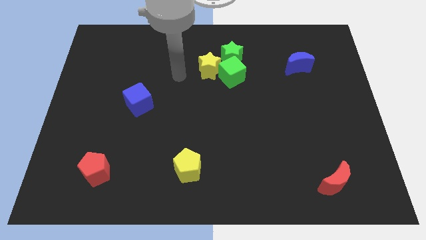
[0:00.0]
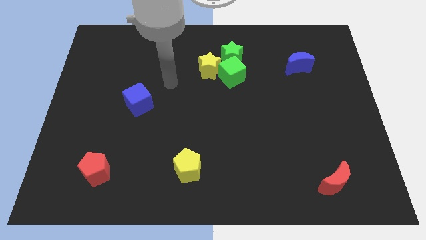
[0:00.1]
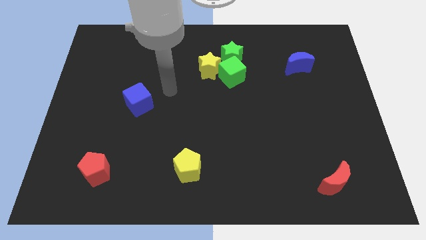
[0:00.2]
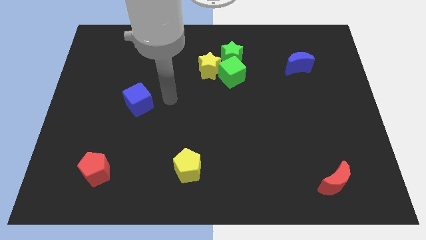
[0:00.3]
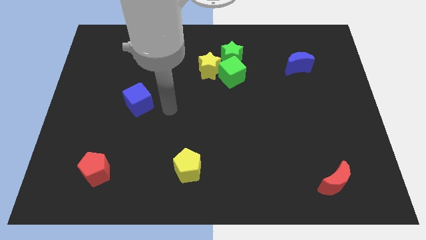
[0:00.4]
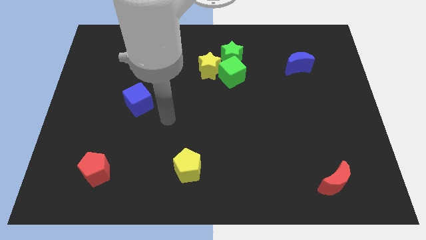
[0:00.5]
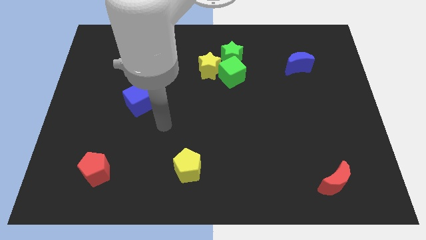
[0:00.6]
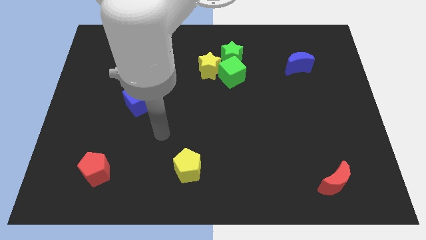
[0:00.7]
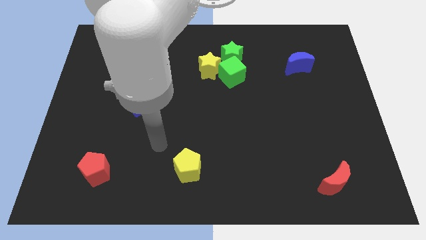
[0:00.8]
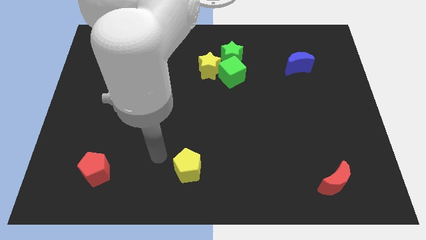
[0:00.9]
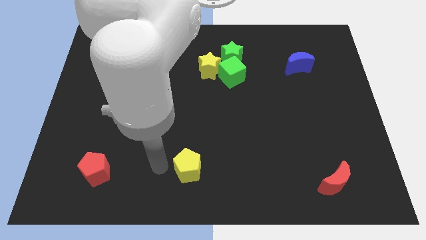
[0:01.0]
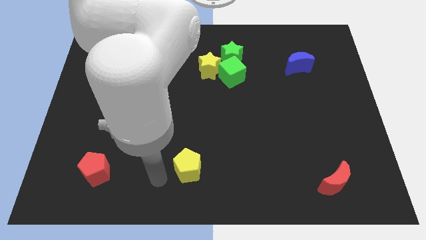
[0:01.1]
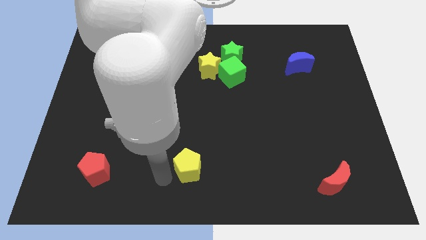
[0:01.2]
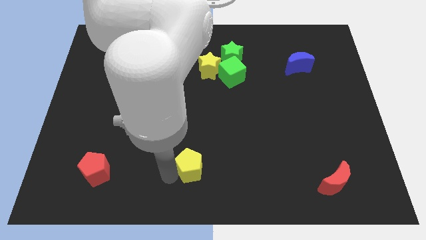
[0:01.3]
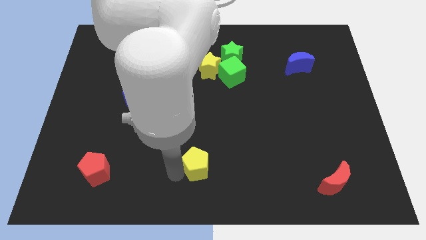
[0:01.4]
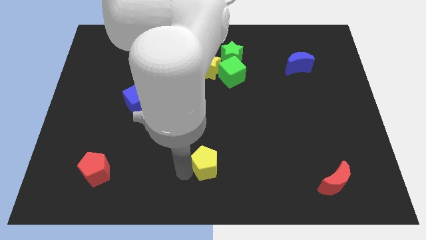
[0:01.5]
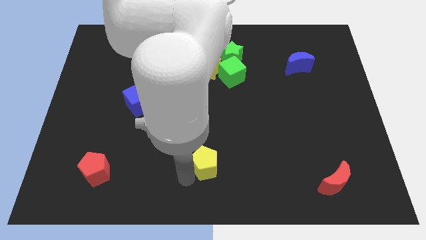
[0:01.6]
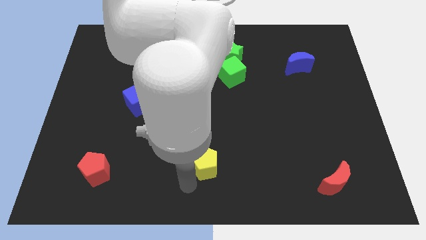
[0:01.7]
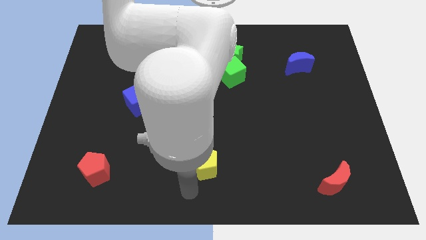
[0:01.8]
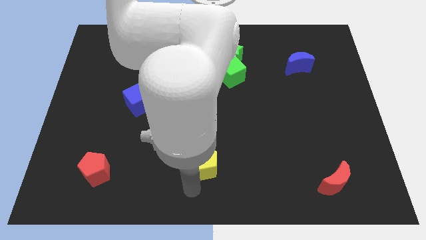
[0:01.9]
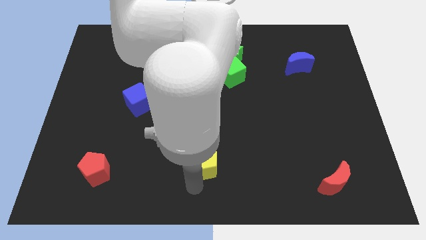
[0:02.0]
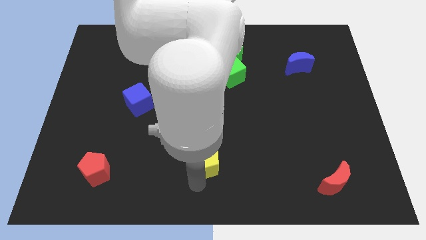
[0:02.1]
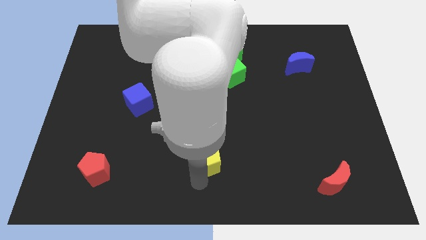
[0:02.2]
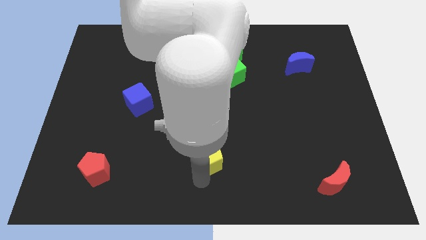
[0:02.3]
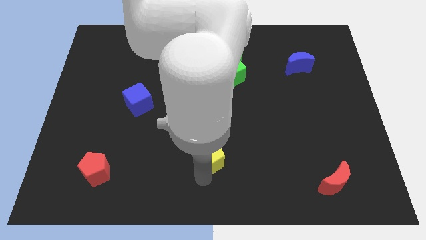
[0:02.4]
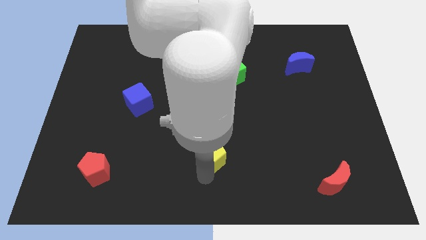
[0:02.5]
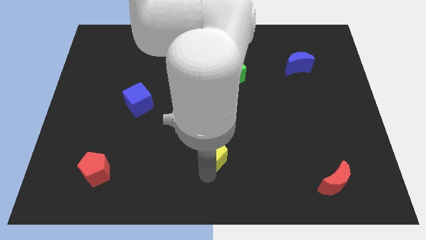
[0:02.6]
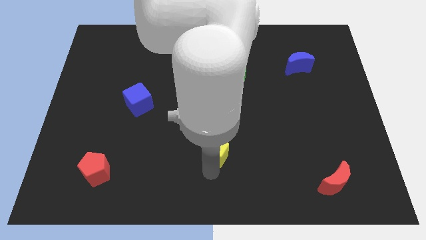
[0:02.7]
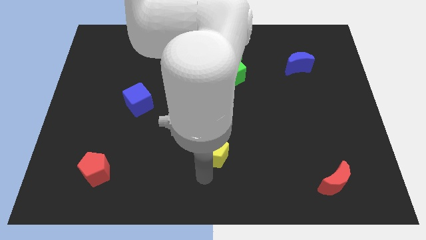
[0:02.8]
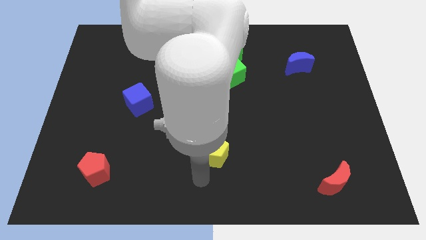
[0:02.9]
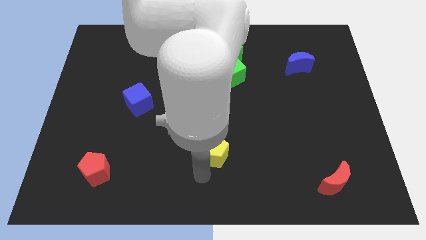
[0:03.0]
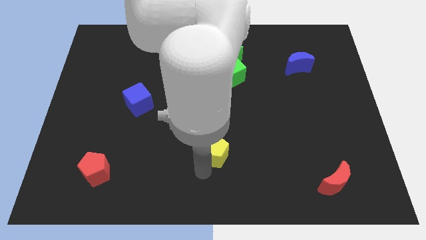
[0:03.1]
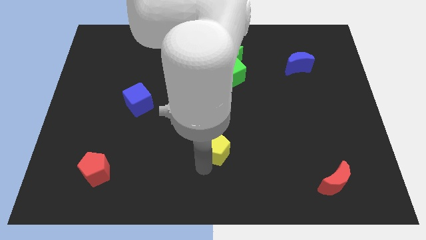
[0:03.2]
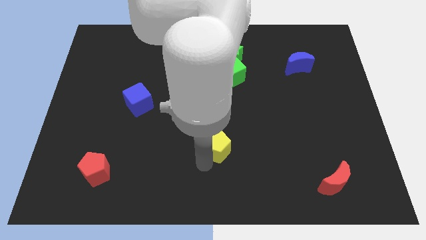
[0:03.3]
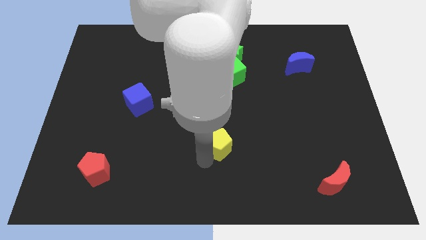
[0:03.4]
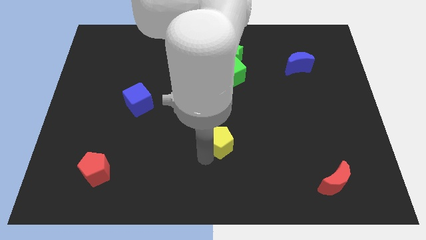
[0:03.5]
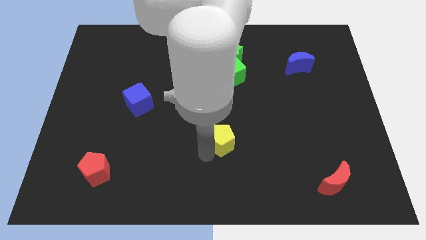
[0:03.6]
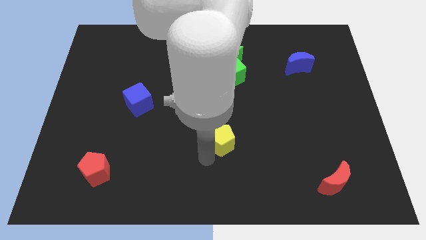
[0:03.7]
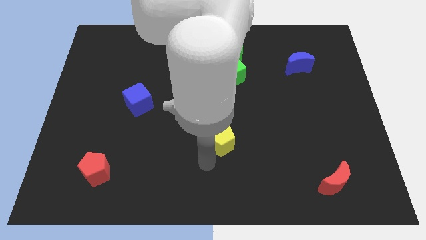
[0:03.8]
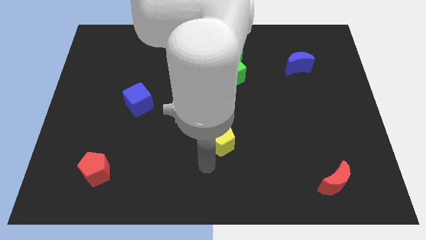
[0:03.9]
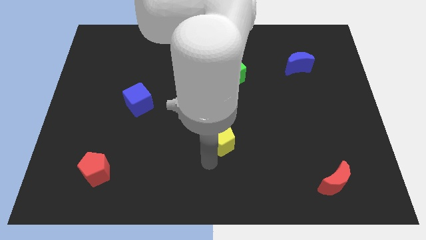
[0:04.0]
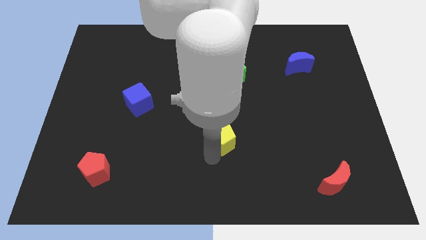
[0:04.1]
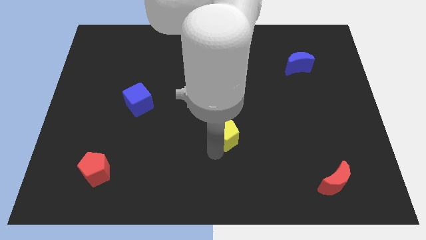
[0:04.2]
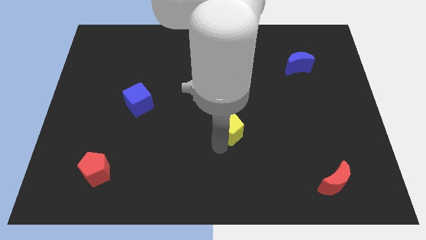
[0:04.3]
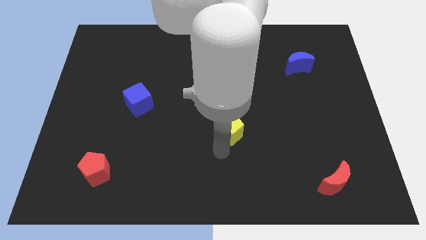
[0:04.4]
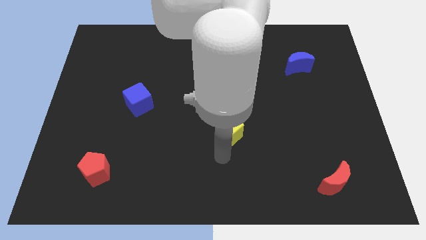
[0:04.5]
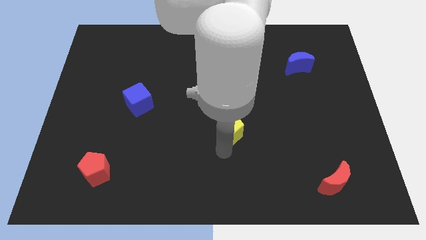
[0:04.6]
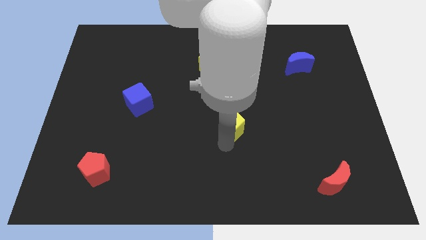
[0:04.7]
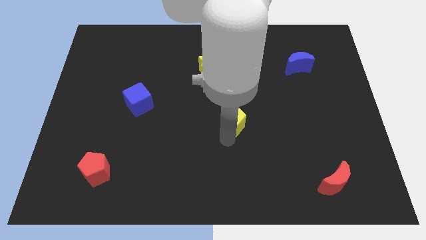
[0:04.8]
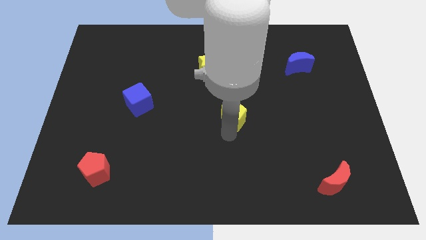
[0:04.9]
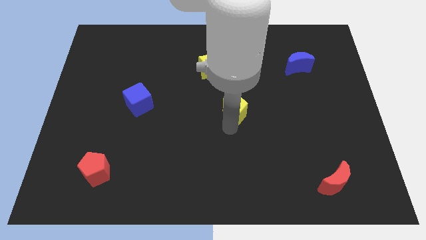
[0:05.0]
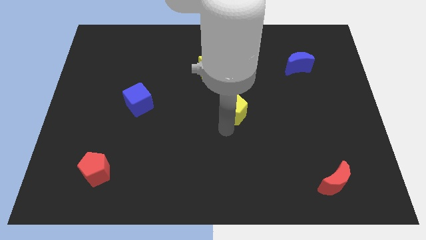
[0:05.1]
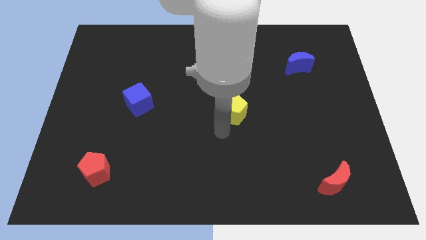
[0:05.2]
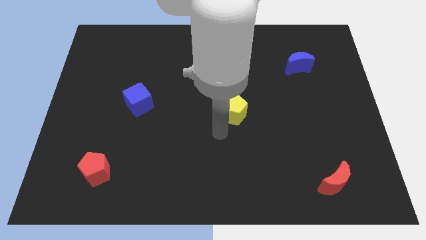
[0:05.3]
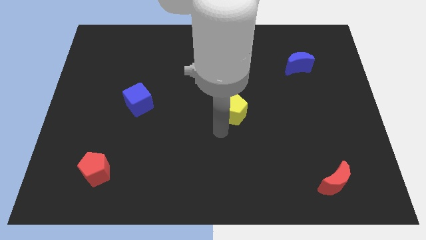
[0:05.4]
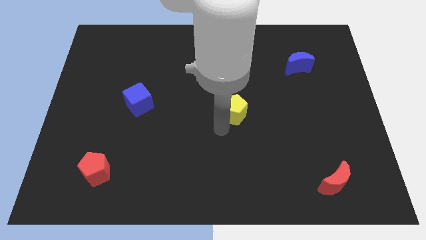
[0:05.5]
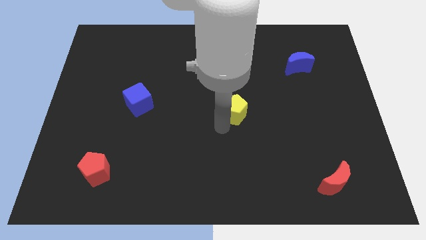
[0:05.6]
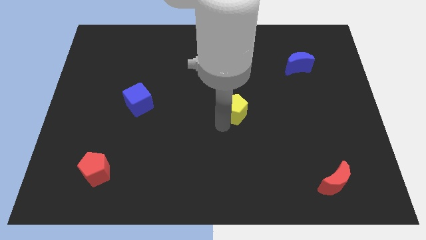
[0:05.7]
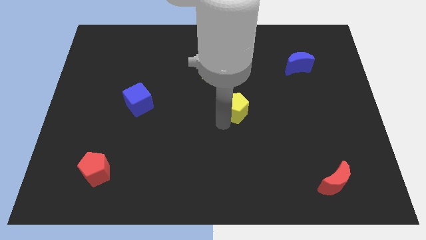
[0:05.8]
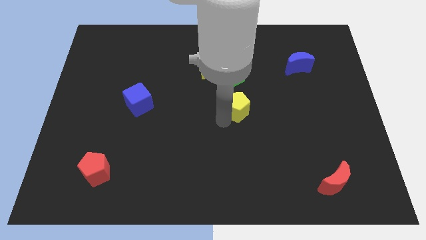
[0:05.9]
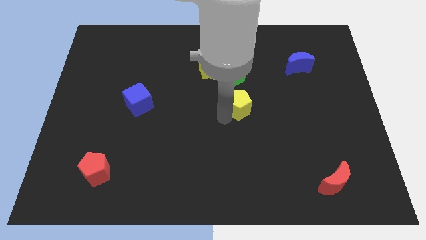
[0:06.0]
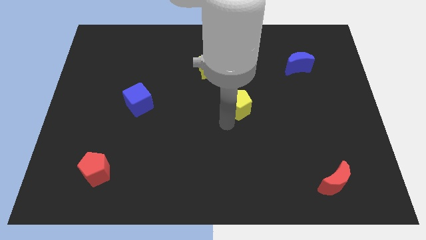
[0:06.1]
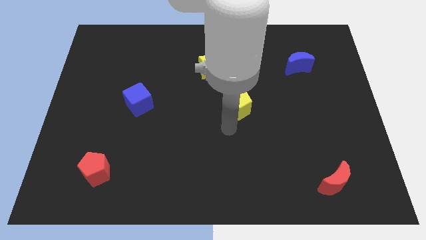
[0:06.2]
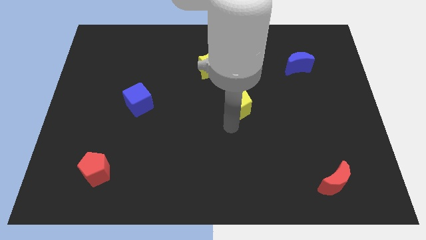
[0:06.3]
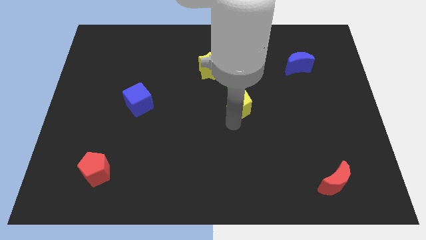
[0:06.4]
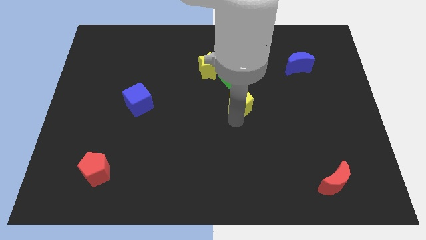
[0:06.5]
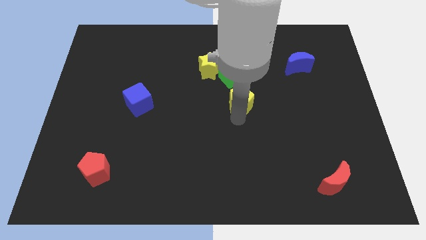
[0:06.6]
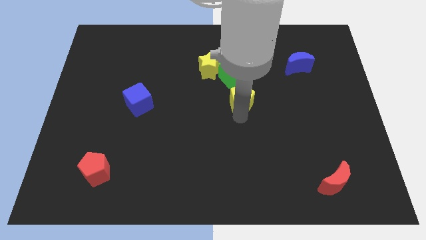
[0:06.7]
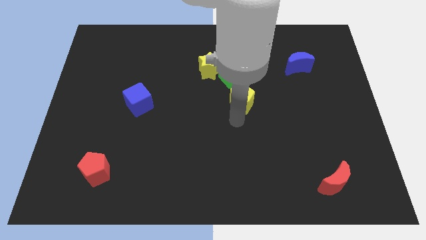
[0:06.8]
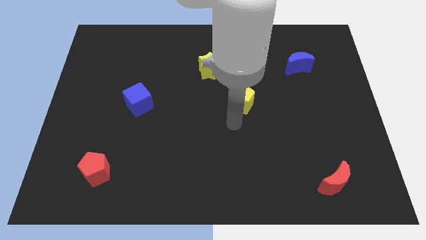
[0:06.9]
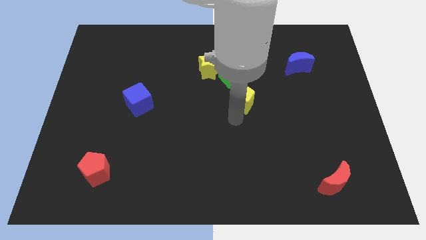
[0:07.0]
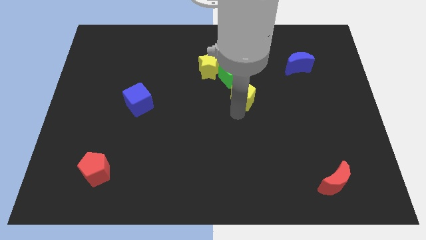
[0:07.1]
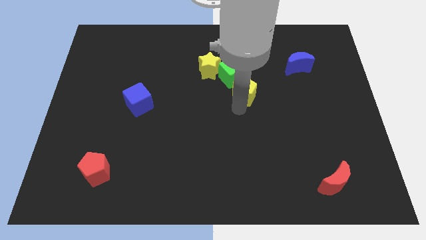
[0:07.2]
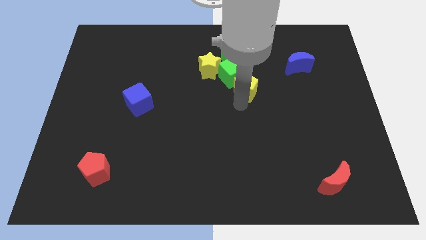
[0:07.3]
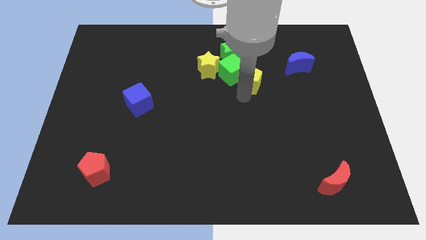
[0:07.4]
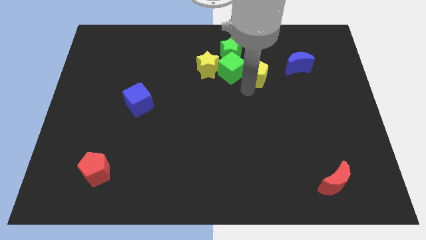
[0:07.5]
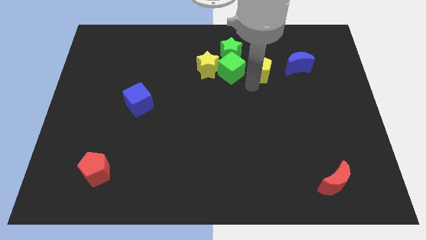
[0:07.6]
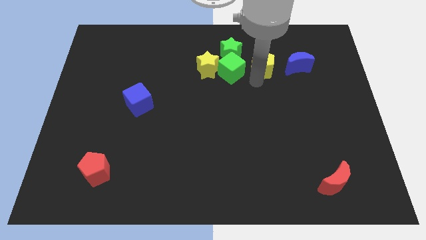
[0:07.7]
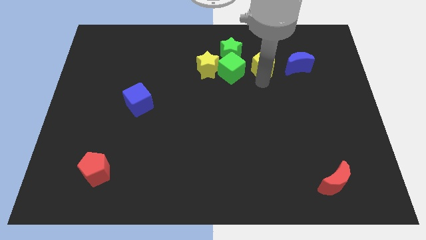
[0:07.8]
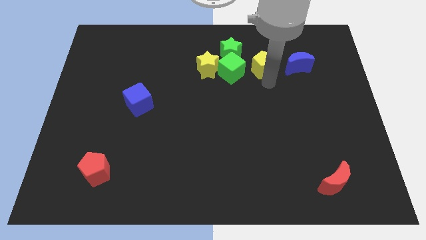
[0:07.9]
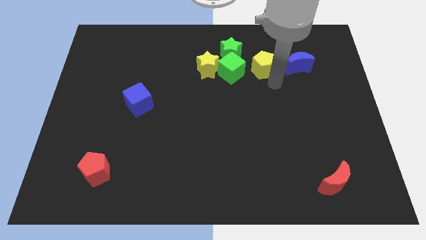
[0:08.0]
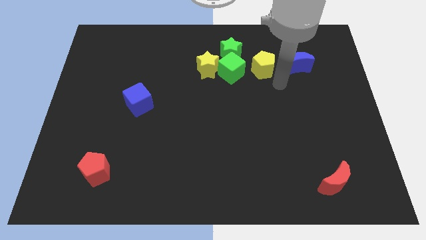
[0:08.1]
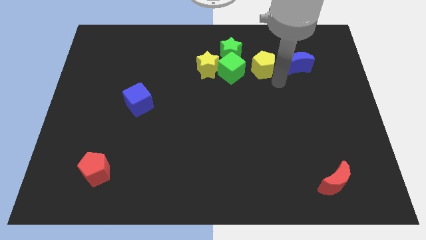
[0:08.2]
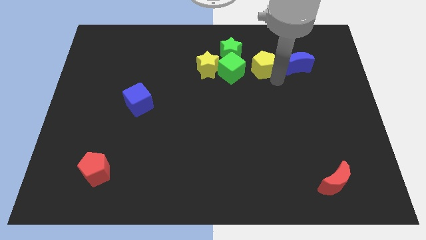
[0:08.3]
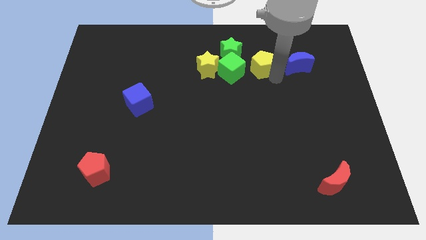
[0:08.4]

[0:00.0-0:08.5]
push the yellow pentagon diagonally up and to the right of the green cube
